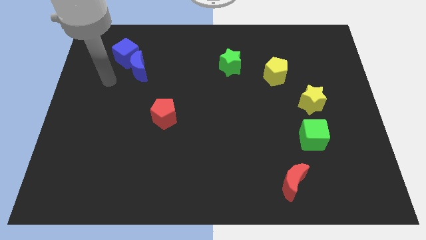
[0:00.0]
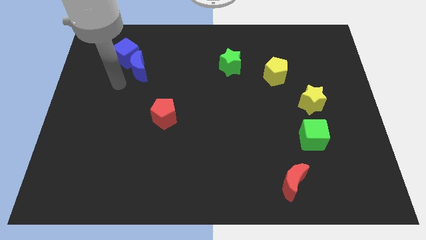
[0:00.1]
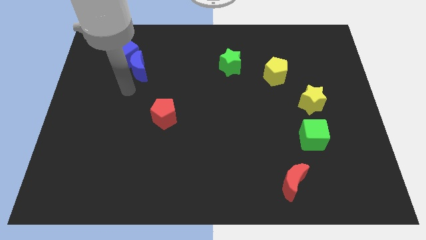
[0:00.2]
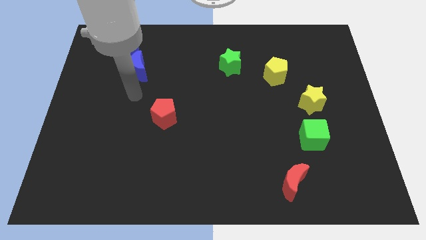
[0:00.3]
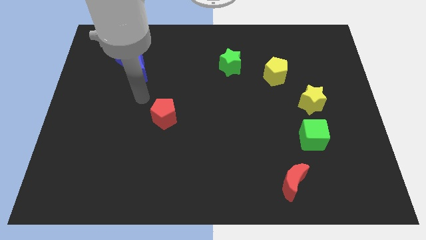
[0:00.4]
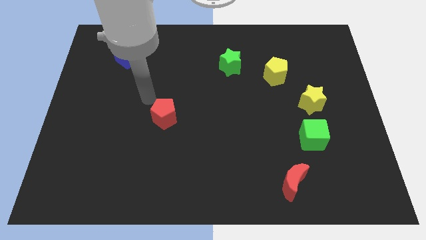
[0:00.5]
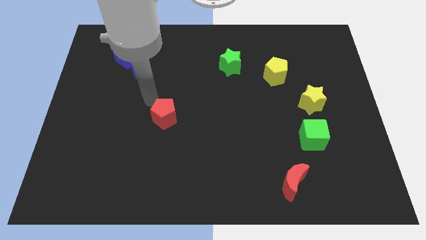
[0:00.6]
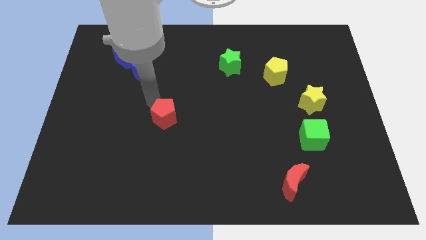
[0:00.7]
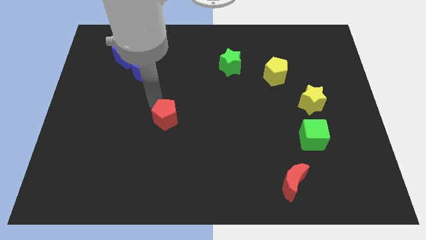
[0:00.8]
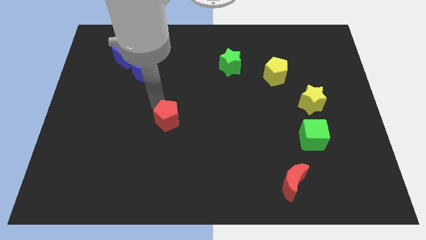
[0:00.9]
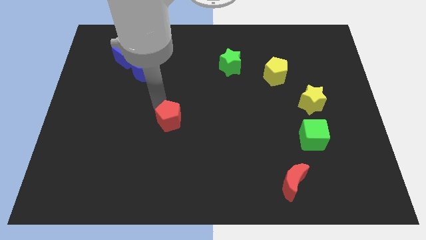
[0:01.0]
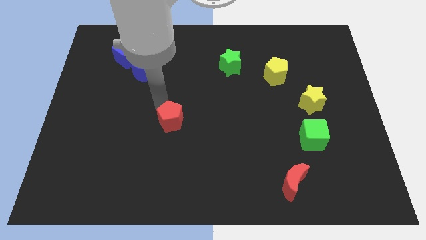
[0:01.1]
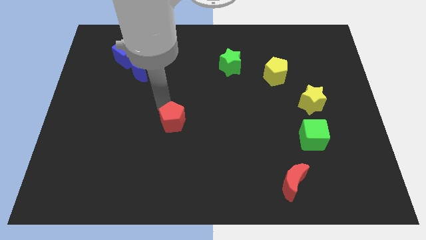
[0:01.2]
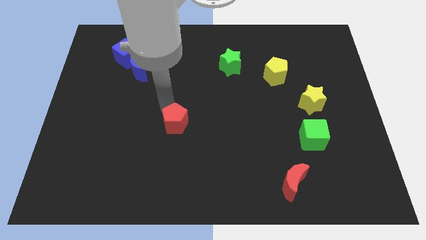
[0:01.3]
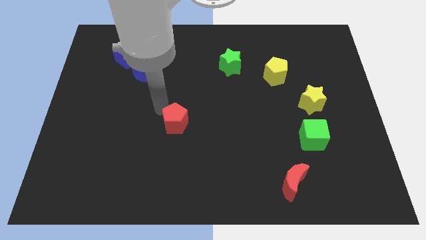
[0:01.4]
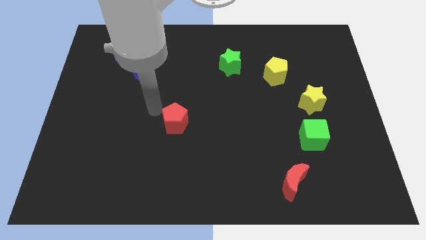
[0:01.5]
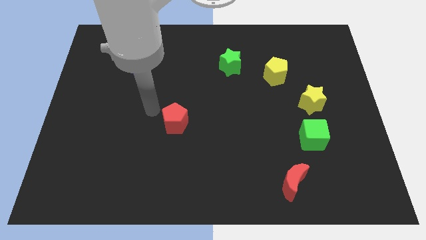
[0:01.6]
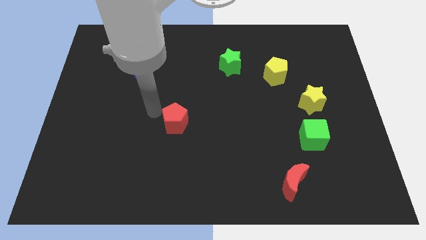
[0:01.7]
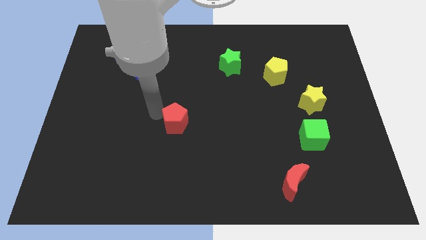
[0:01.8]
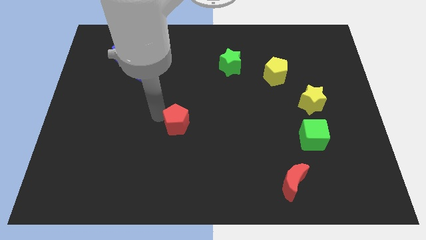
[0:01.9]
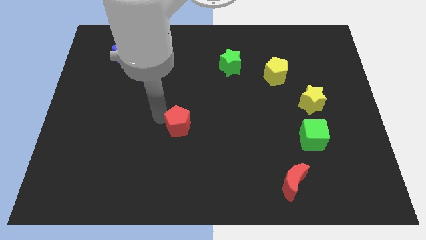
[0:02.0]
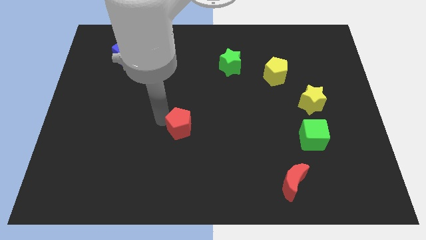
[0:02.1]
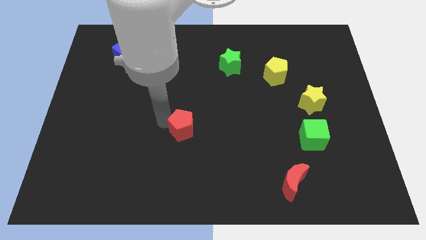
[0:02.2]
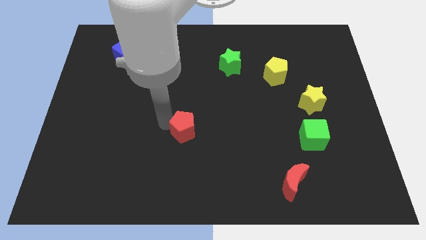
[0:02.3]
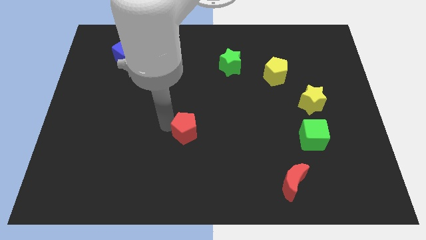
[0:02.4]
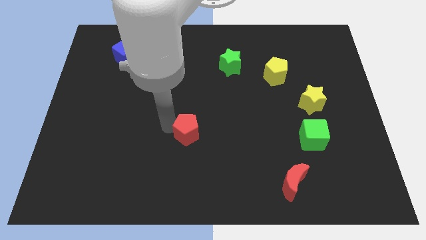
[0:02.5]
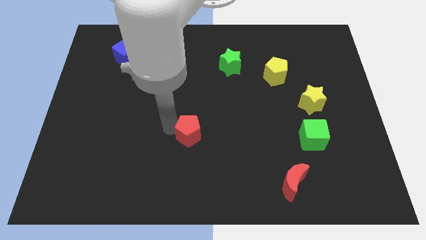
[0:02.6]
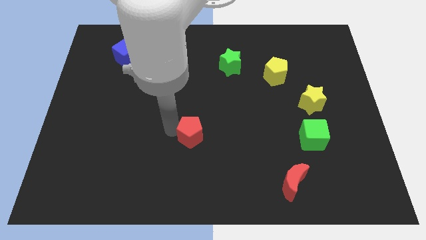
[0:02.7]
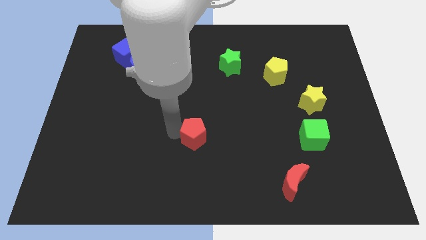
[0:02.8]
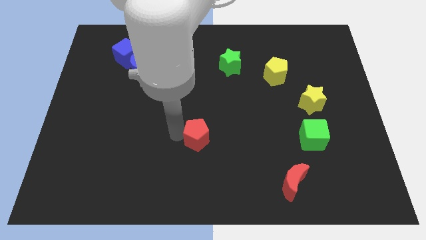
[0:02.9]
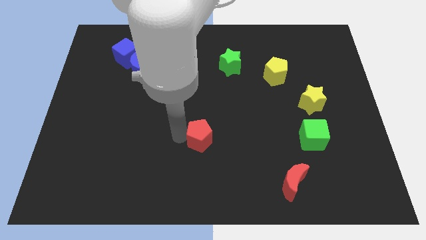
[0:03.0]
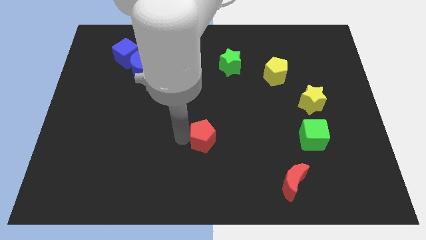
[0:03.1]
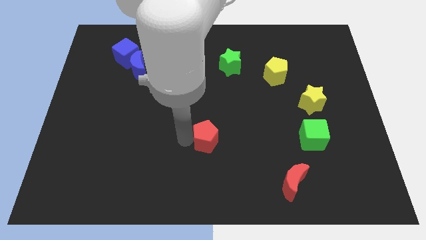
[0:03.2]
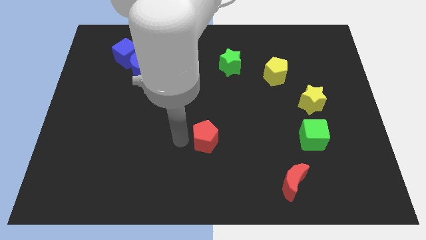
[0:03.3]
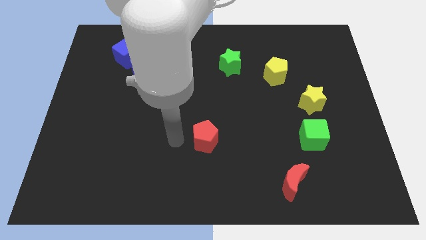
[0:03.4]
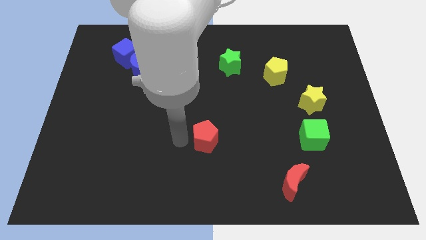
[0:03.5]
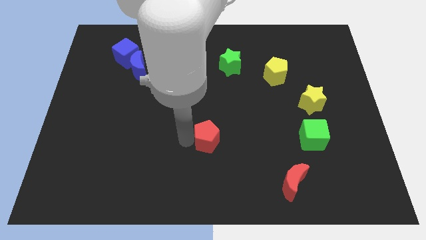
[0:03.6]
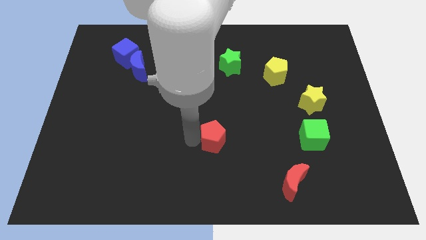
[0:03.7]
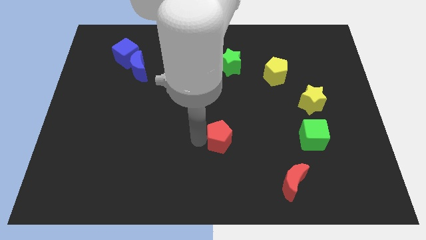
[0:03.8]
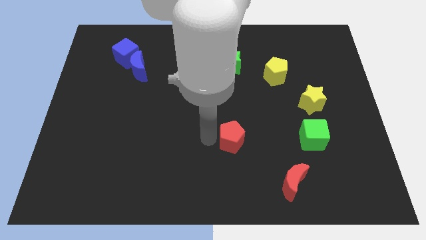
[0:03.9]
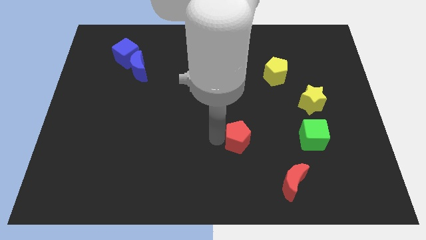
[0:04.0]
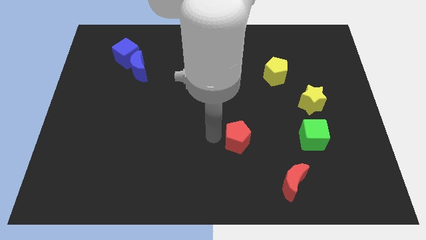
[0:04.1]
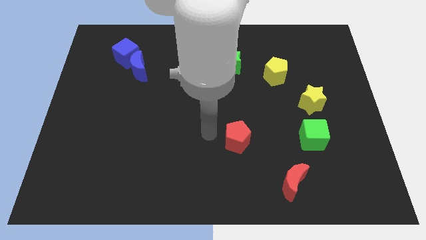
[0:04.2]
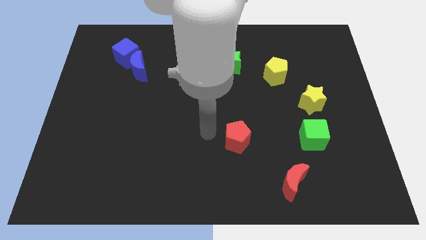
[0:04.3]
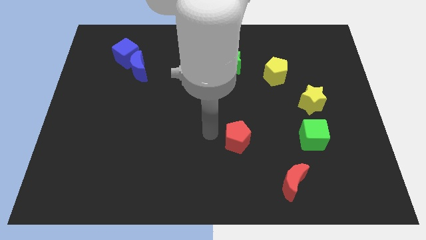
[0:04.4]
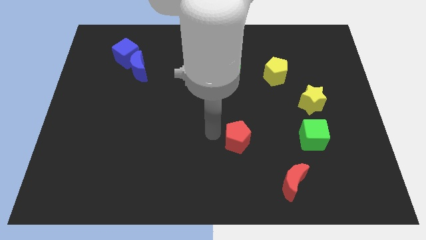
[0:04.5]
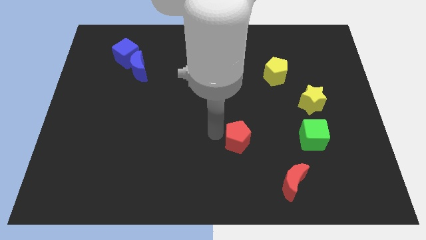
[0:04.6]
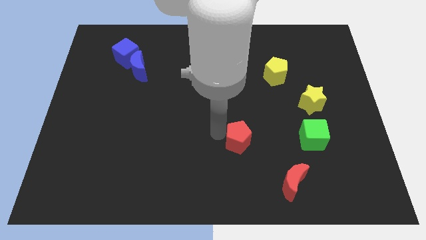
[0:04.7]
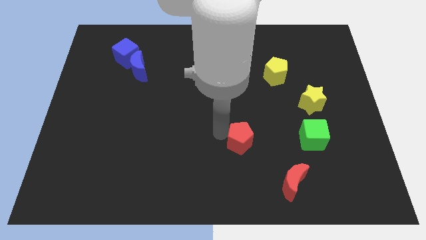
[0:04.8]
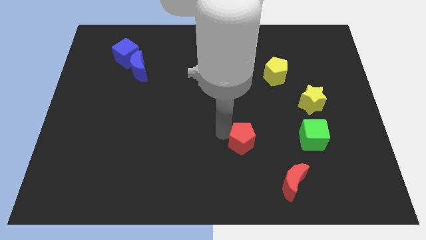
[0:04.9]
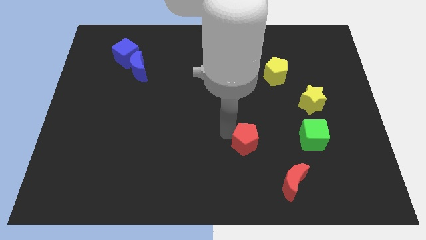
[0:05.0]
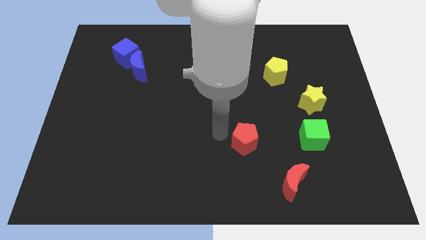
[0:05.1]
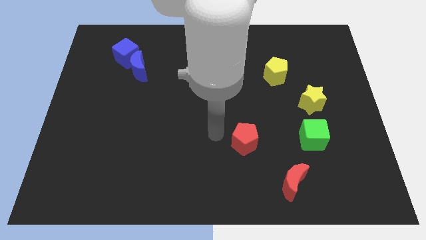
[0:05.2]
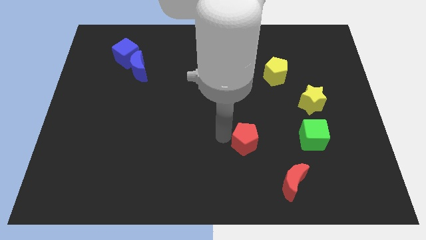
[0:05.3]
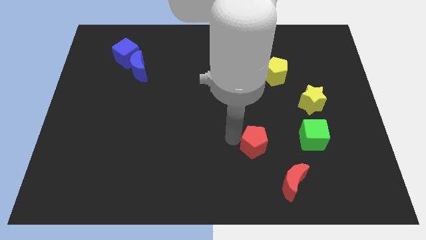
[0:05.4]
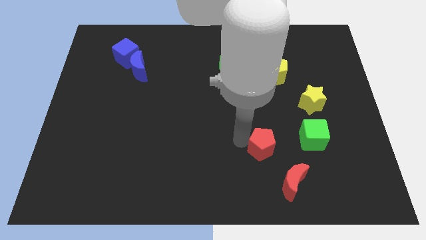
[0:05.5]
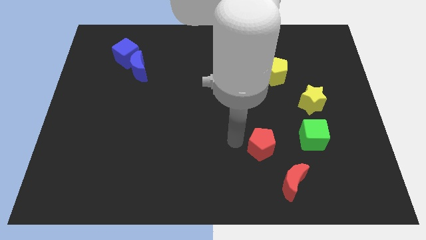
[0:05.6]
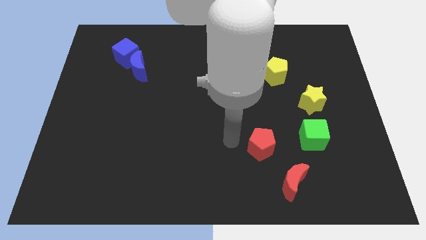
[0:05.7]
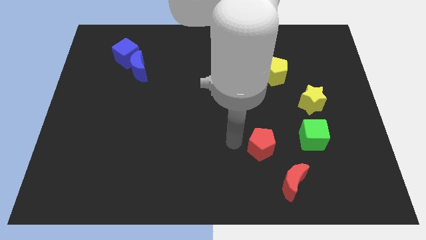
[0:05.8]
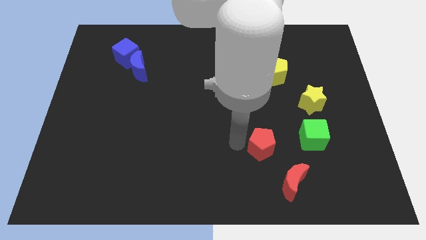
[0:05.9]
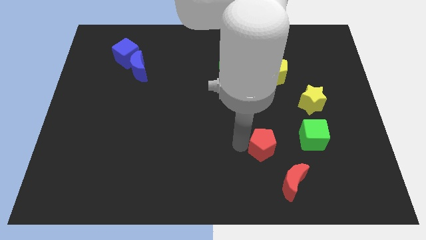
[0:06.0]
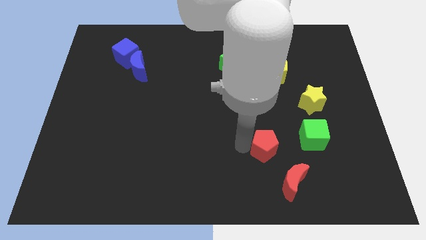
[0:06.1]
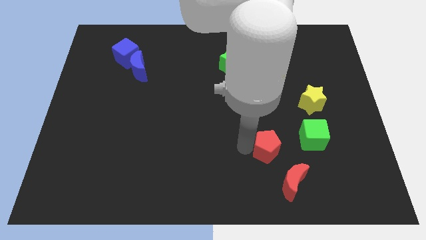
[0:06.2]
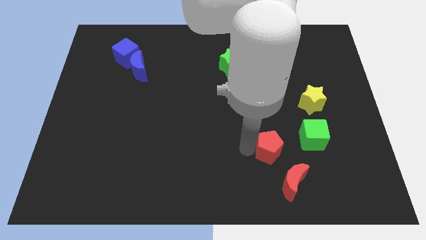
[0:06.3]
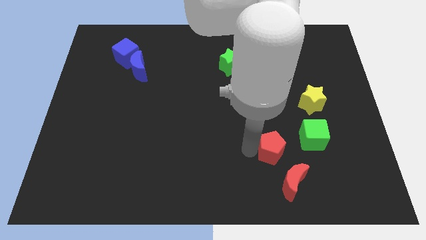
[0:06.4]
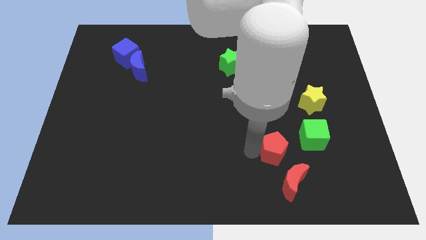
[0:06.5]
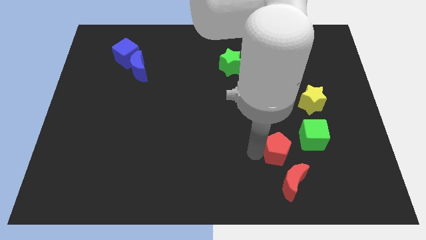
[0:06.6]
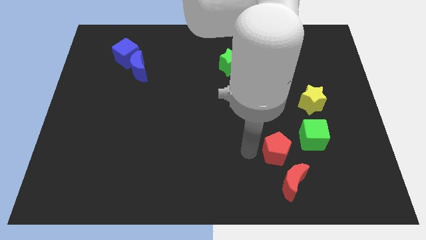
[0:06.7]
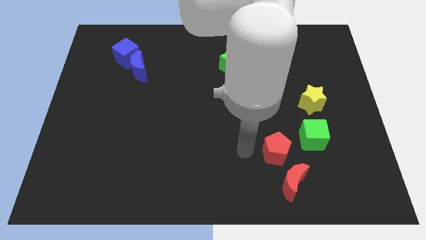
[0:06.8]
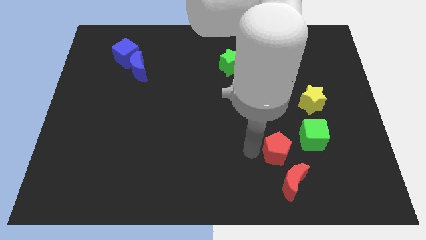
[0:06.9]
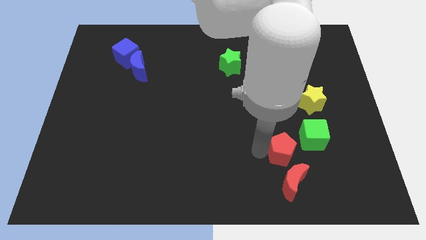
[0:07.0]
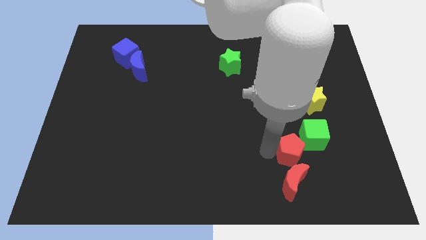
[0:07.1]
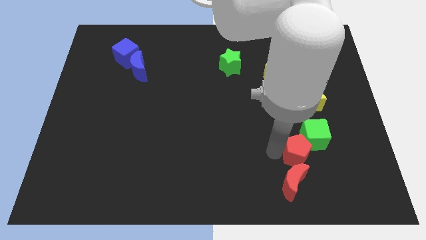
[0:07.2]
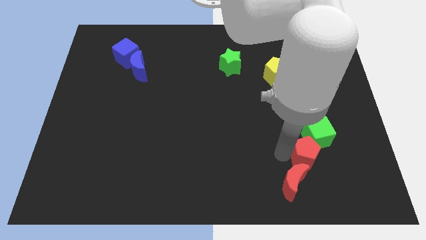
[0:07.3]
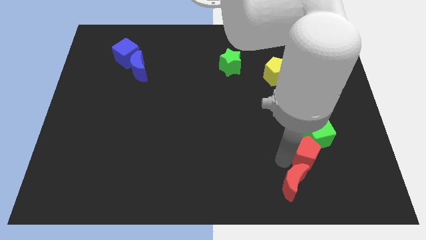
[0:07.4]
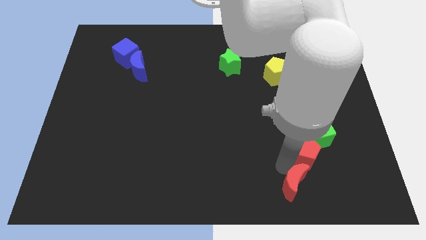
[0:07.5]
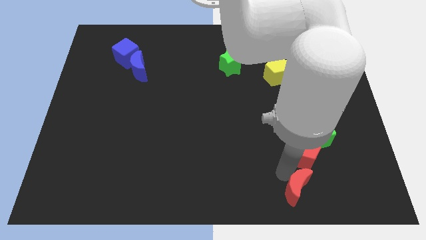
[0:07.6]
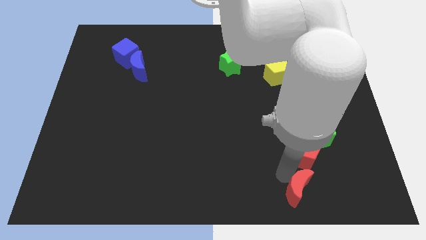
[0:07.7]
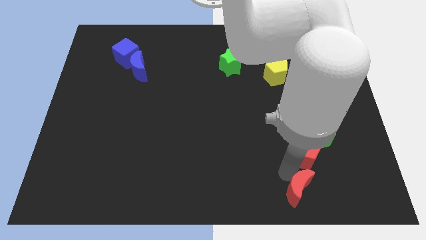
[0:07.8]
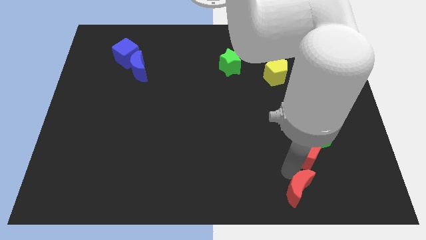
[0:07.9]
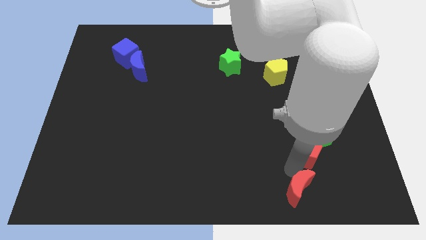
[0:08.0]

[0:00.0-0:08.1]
slide the red pentagon to the bottom side of the yellow star

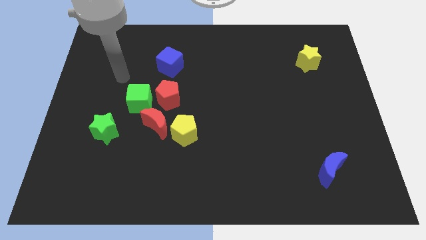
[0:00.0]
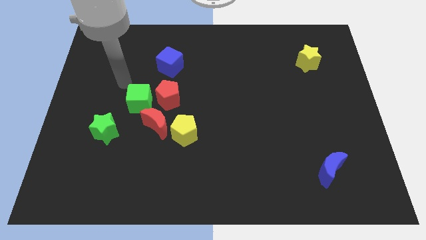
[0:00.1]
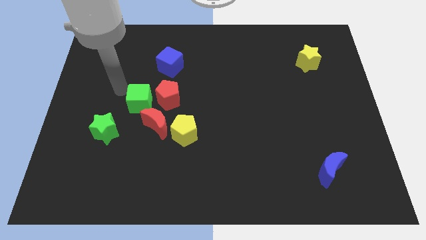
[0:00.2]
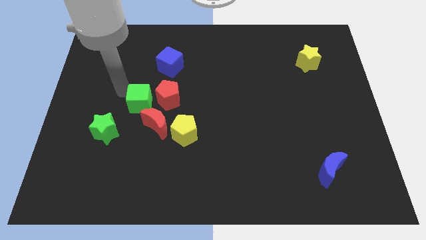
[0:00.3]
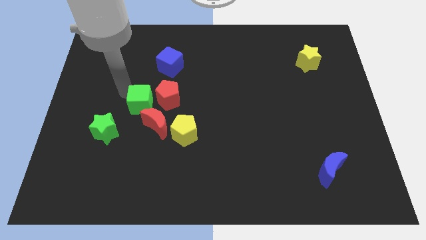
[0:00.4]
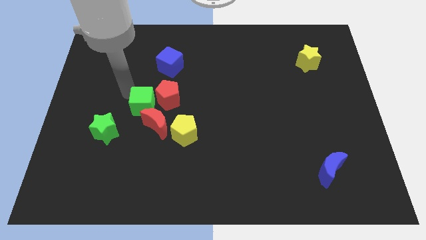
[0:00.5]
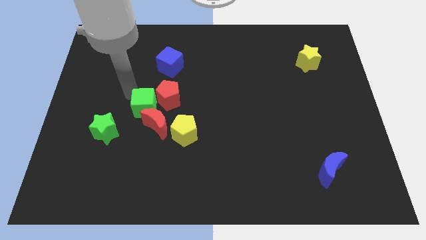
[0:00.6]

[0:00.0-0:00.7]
put the green cube diagonally up and to the left of the yellow pentagon
